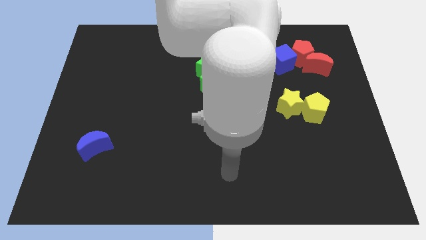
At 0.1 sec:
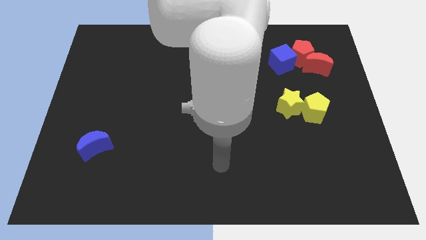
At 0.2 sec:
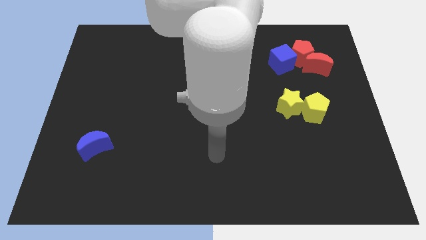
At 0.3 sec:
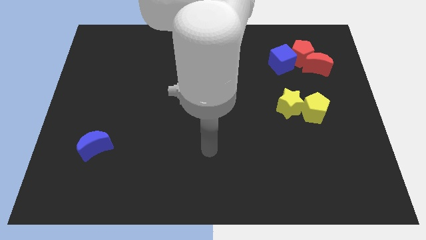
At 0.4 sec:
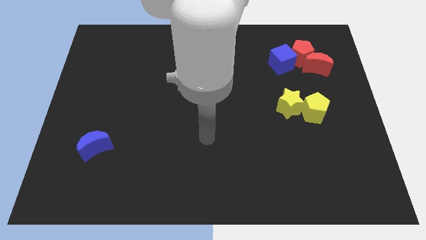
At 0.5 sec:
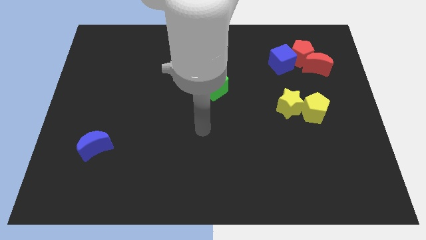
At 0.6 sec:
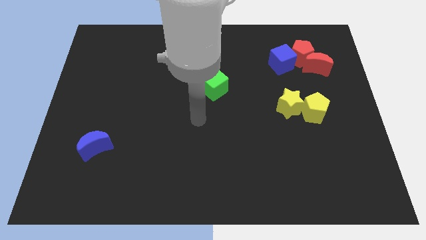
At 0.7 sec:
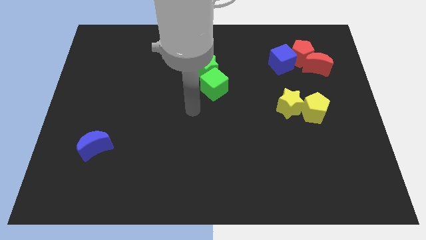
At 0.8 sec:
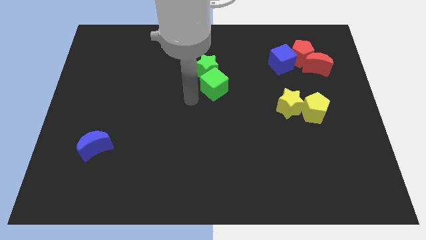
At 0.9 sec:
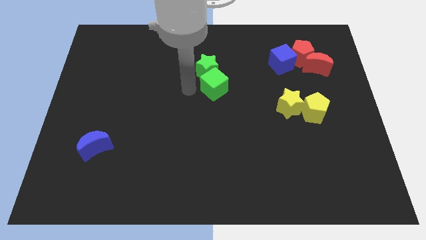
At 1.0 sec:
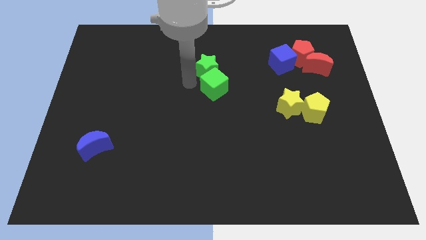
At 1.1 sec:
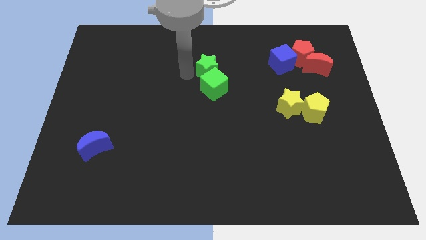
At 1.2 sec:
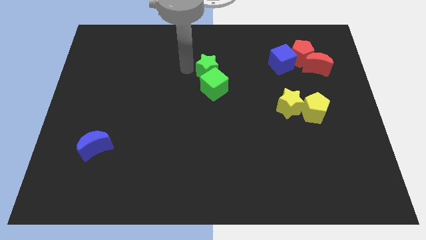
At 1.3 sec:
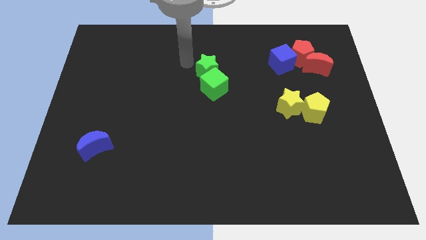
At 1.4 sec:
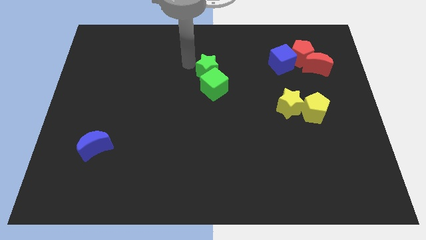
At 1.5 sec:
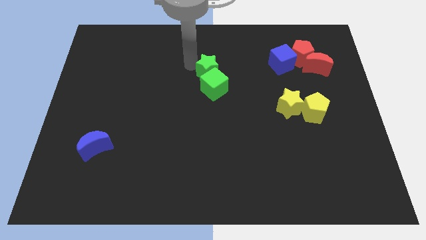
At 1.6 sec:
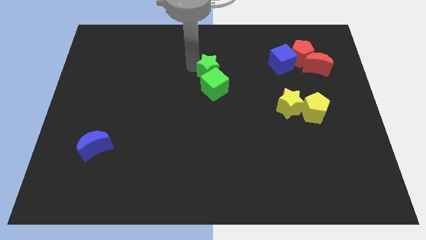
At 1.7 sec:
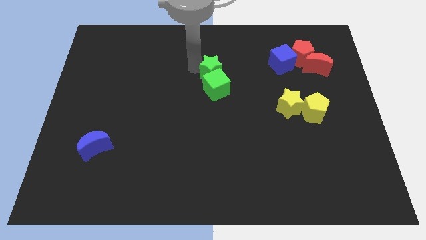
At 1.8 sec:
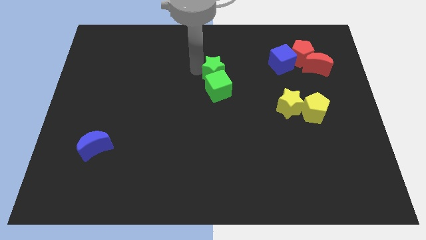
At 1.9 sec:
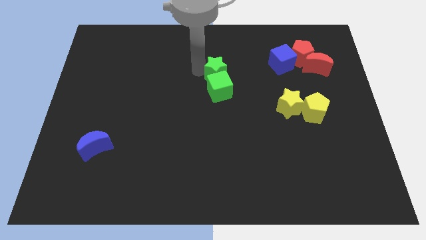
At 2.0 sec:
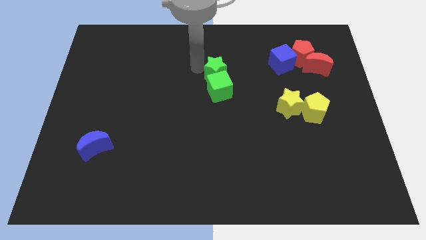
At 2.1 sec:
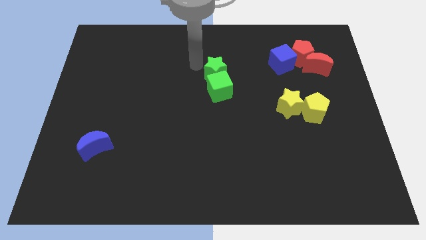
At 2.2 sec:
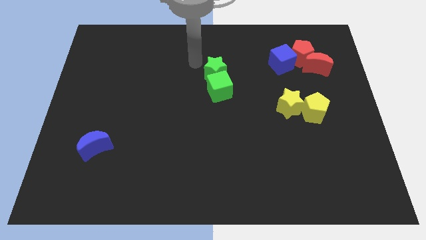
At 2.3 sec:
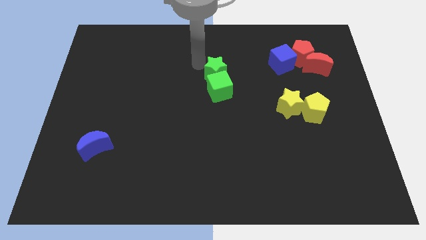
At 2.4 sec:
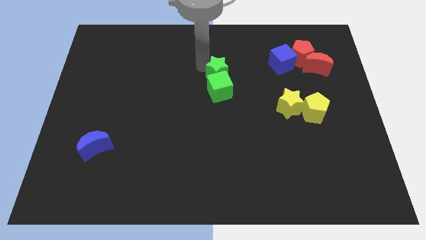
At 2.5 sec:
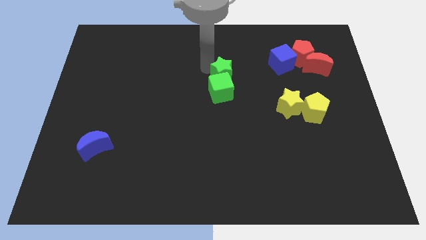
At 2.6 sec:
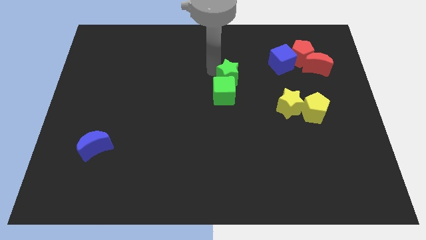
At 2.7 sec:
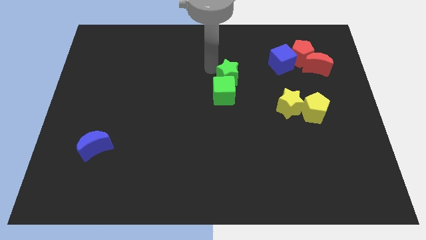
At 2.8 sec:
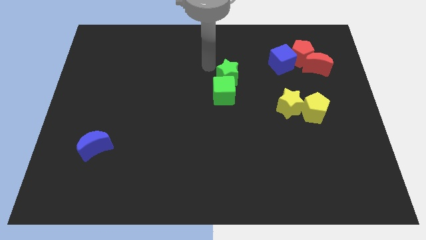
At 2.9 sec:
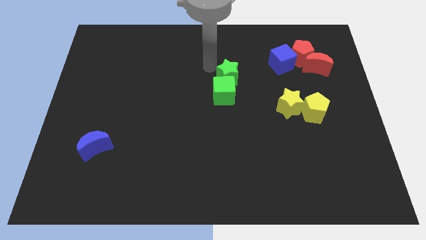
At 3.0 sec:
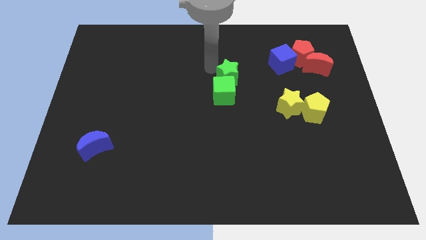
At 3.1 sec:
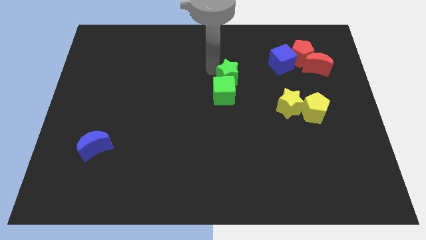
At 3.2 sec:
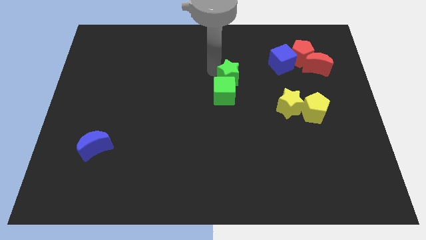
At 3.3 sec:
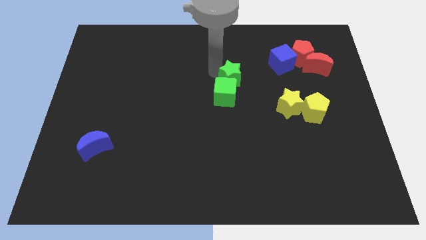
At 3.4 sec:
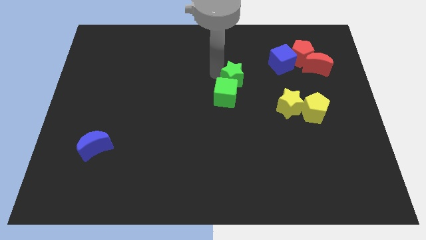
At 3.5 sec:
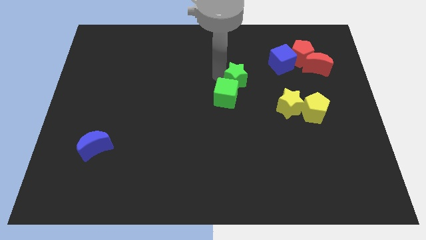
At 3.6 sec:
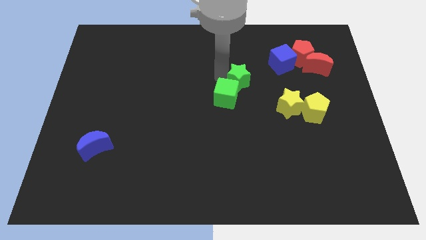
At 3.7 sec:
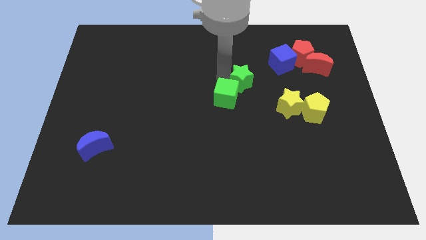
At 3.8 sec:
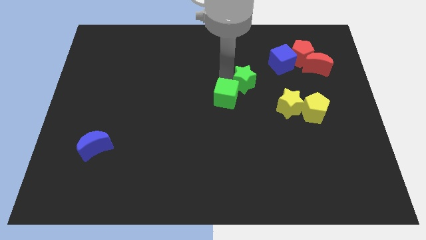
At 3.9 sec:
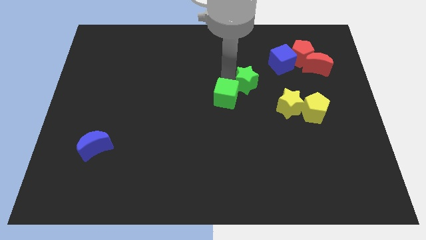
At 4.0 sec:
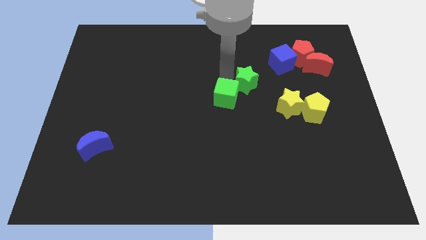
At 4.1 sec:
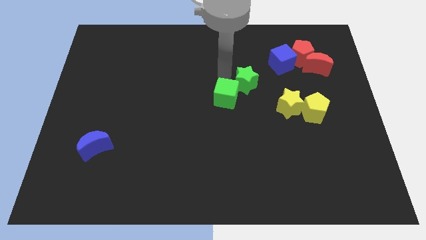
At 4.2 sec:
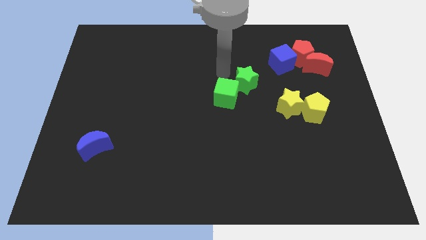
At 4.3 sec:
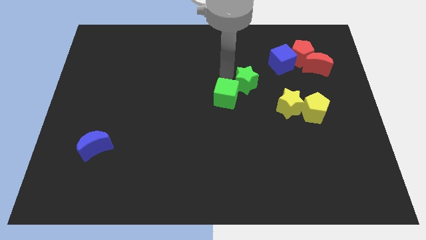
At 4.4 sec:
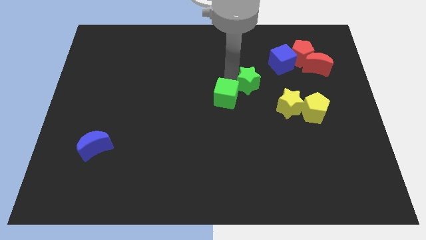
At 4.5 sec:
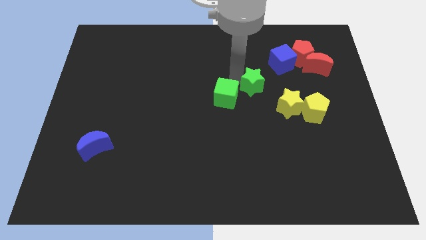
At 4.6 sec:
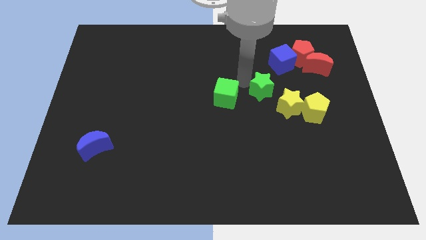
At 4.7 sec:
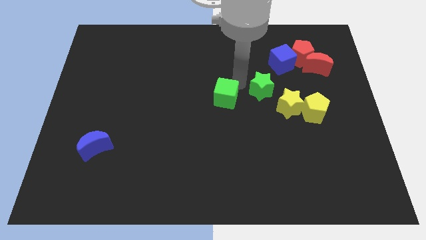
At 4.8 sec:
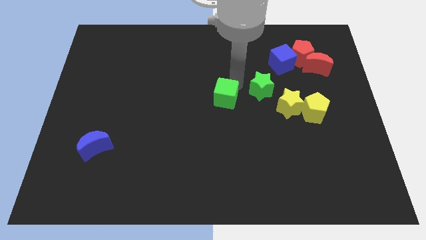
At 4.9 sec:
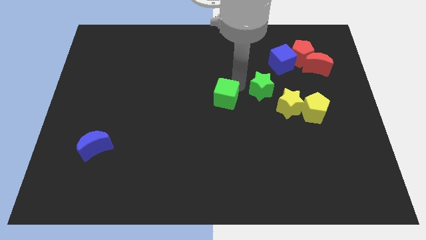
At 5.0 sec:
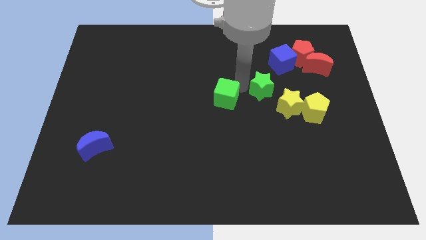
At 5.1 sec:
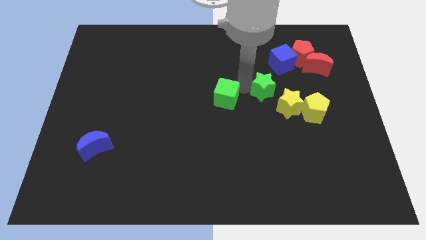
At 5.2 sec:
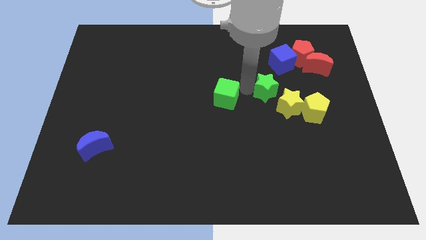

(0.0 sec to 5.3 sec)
push the green star to the bottom of the blue cube

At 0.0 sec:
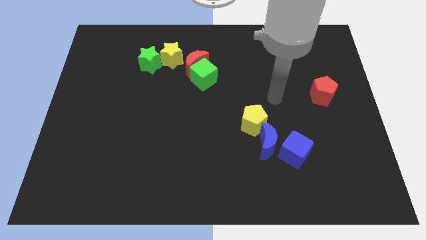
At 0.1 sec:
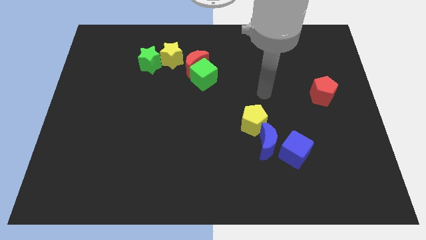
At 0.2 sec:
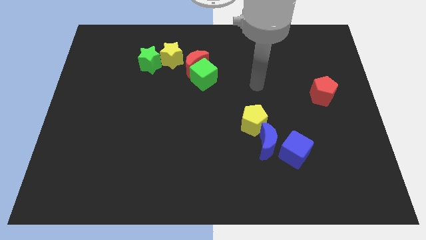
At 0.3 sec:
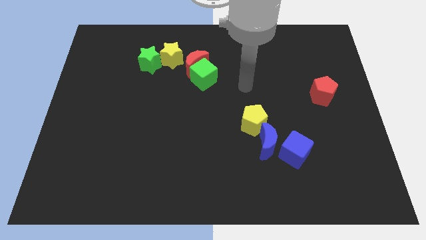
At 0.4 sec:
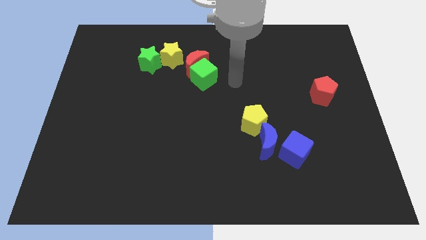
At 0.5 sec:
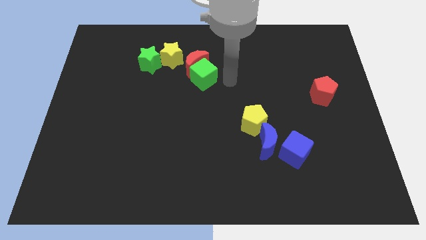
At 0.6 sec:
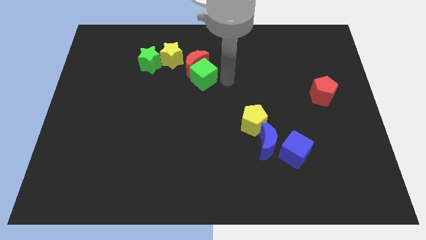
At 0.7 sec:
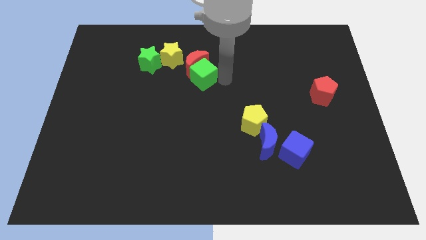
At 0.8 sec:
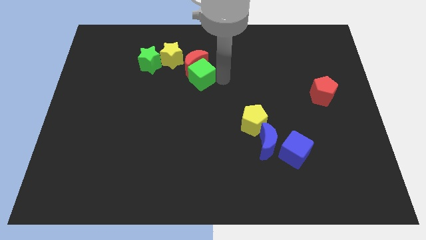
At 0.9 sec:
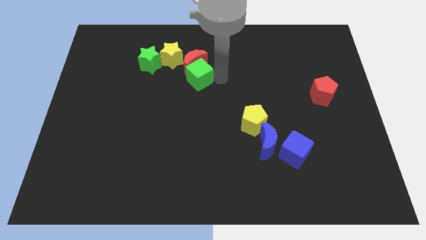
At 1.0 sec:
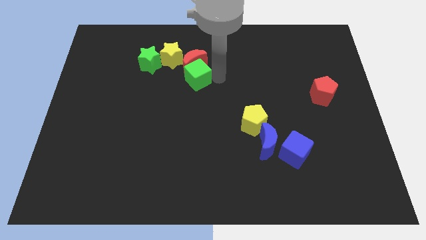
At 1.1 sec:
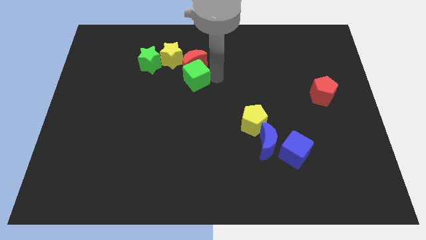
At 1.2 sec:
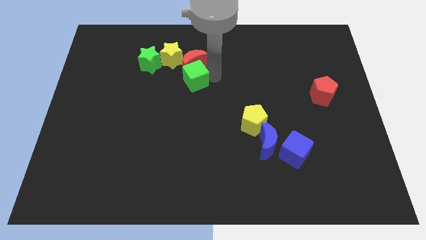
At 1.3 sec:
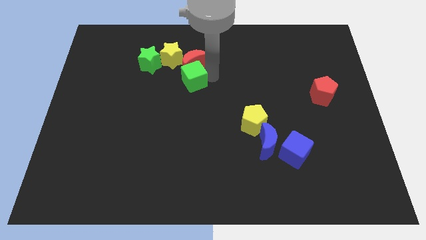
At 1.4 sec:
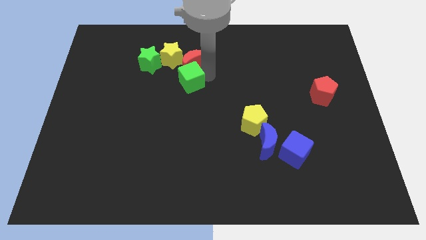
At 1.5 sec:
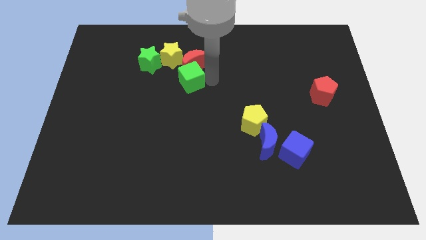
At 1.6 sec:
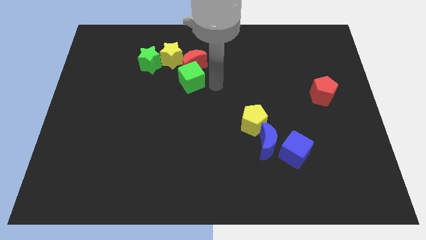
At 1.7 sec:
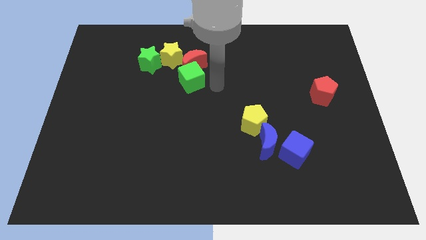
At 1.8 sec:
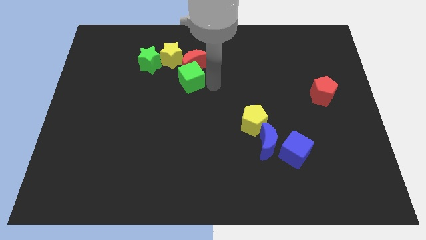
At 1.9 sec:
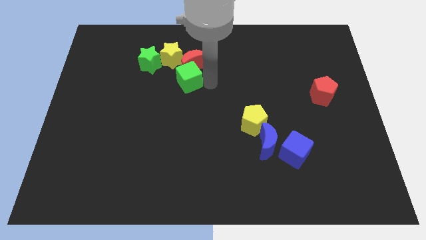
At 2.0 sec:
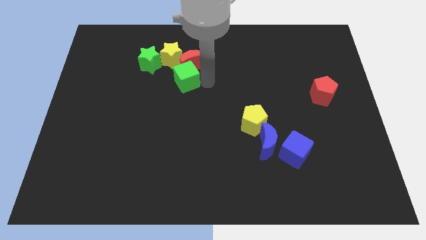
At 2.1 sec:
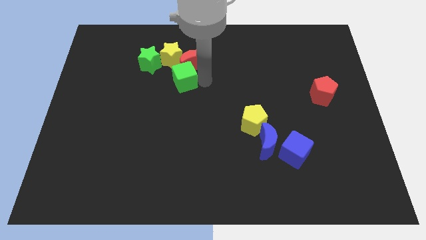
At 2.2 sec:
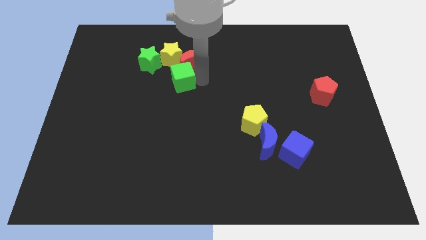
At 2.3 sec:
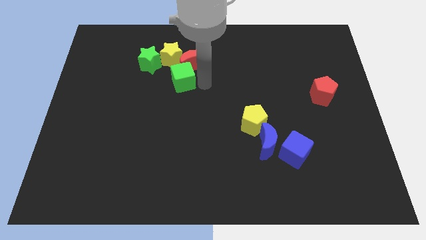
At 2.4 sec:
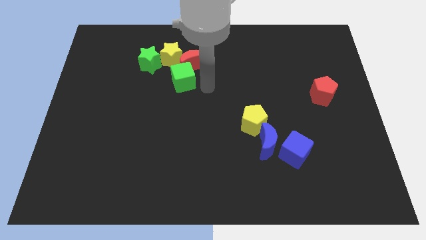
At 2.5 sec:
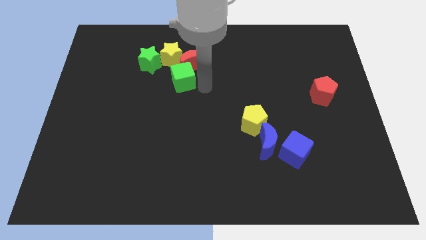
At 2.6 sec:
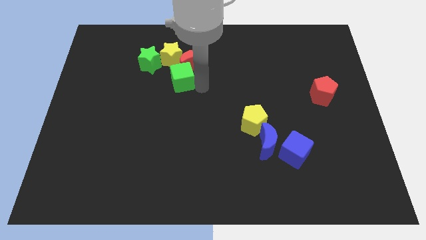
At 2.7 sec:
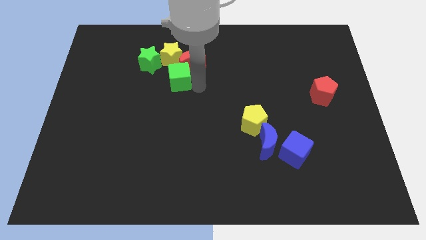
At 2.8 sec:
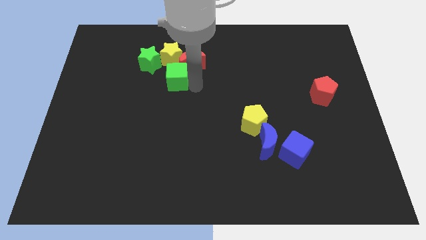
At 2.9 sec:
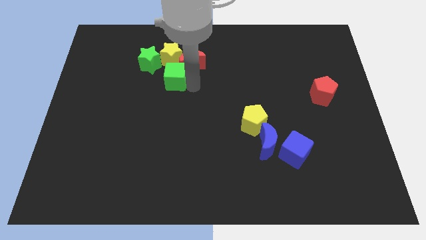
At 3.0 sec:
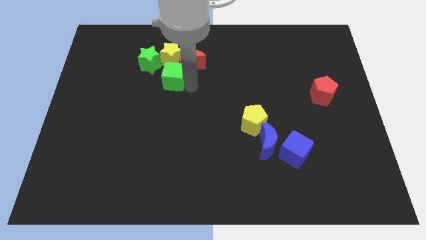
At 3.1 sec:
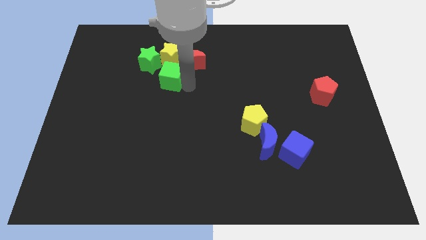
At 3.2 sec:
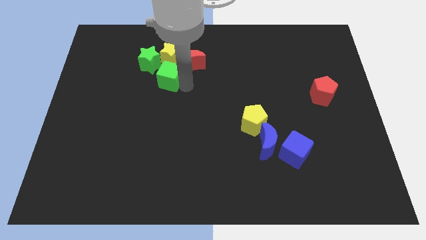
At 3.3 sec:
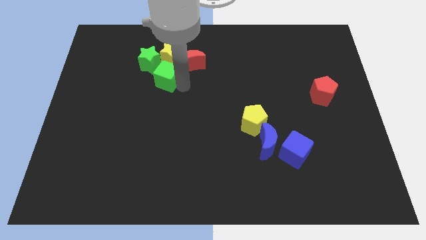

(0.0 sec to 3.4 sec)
slide the green cube to the bottom left side of the yellow star
